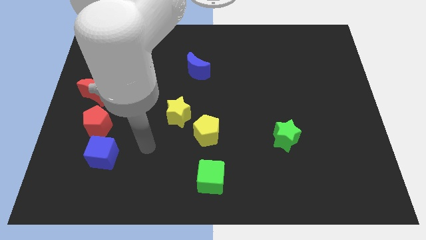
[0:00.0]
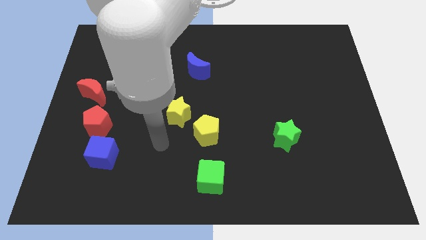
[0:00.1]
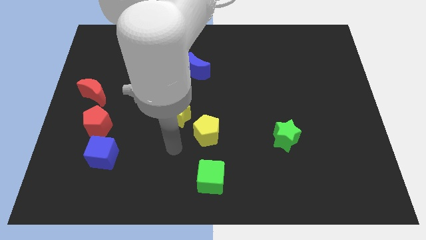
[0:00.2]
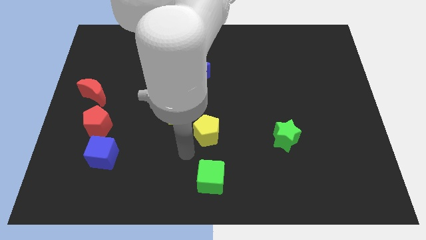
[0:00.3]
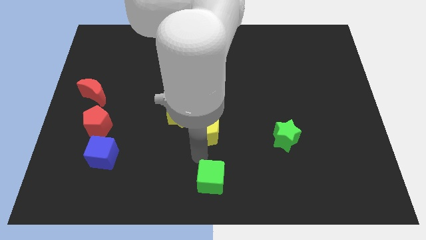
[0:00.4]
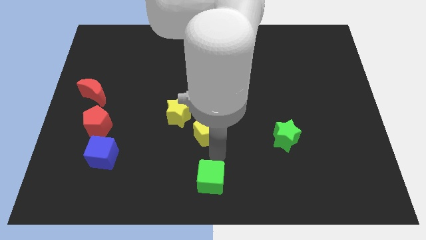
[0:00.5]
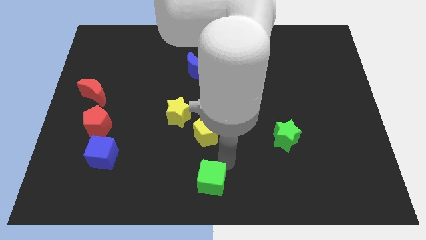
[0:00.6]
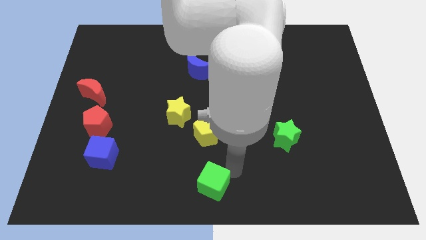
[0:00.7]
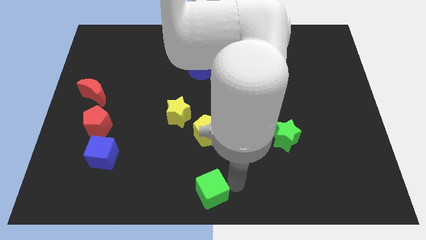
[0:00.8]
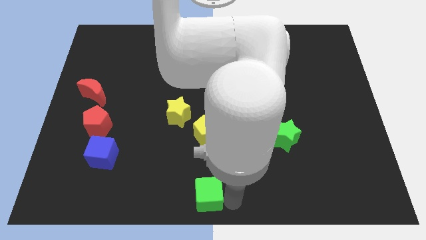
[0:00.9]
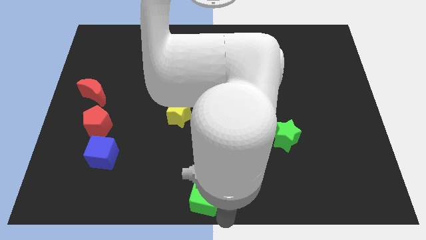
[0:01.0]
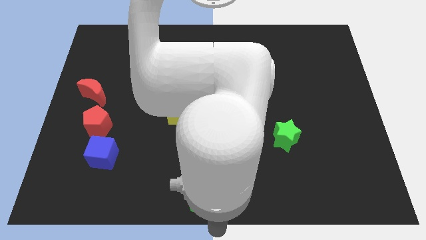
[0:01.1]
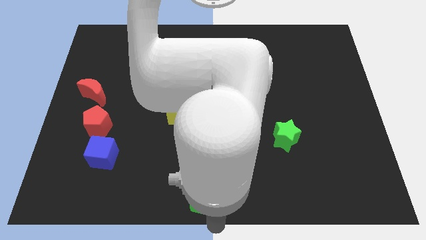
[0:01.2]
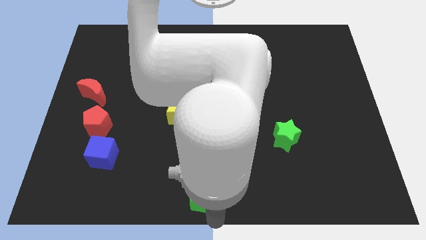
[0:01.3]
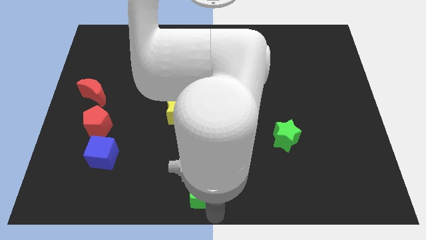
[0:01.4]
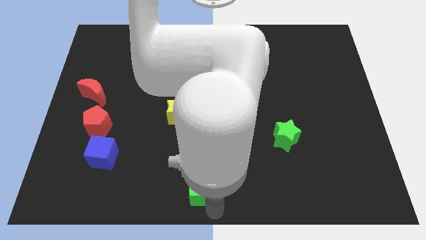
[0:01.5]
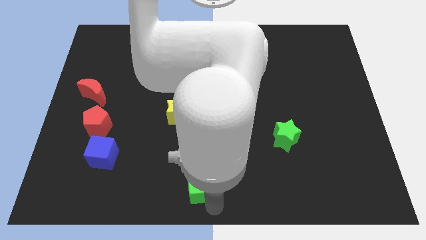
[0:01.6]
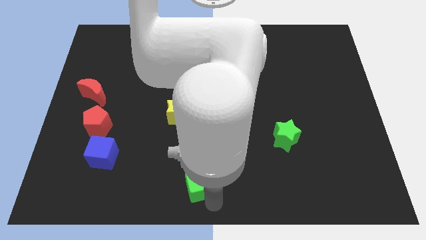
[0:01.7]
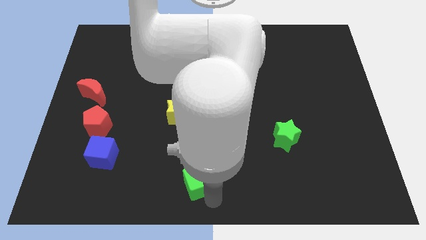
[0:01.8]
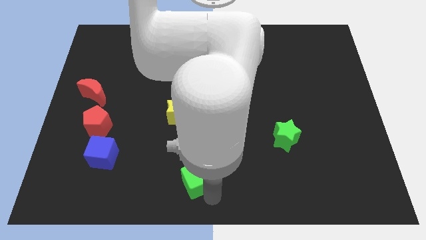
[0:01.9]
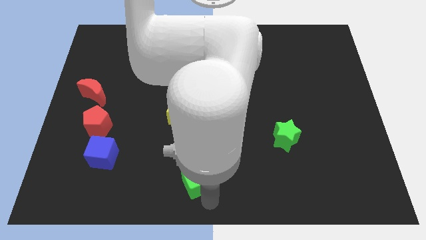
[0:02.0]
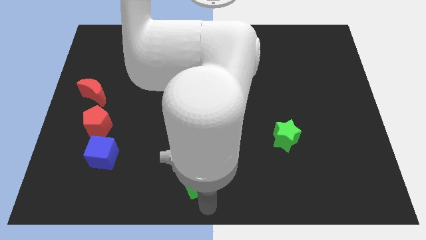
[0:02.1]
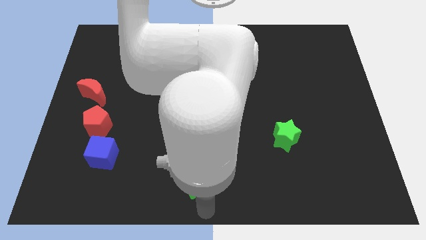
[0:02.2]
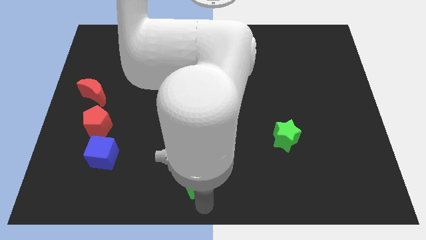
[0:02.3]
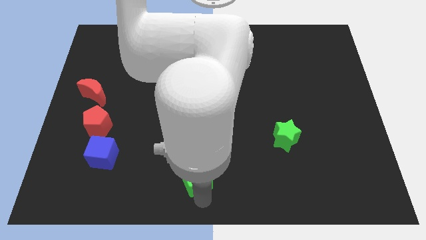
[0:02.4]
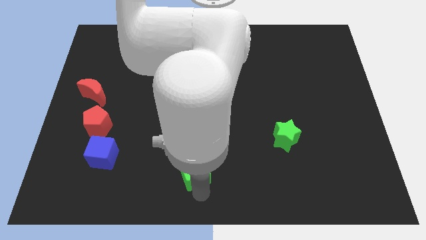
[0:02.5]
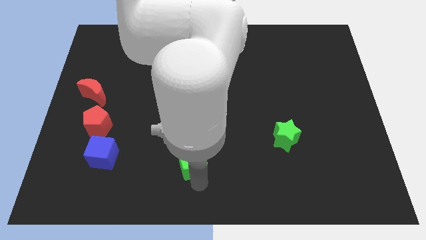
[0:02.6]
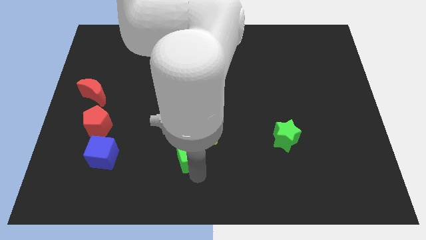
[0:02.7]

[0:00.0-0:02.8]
slightly slide the green cube diagonally up and to the left

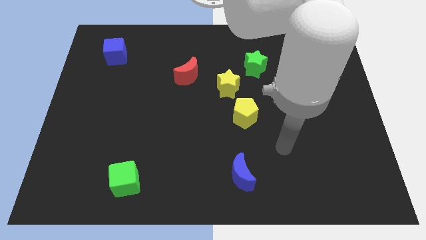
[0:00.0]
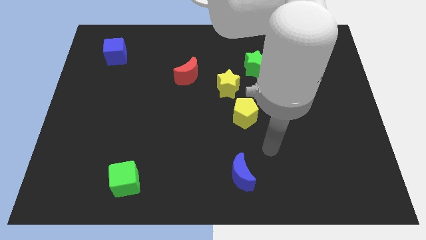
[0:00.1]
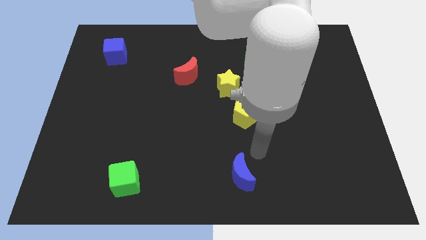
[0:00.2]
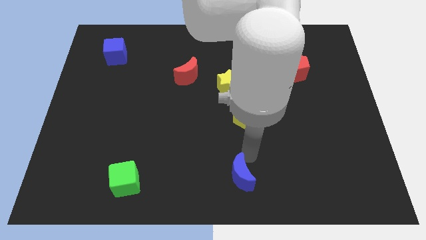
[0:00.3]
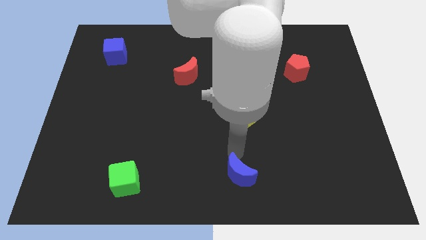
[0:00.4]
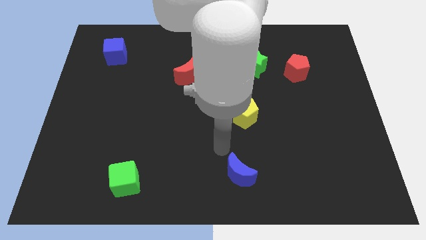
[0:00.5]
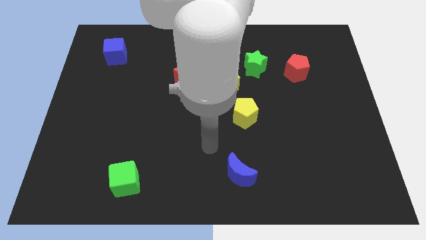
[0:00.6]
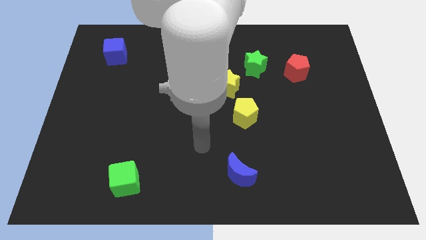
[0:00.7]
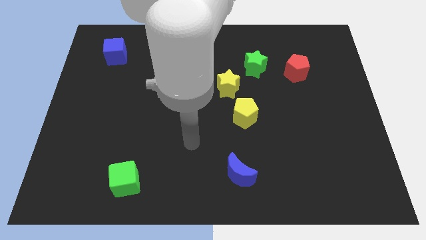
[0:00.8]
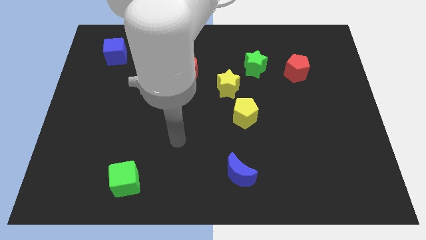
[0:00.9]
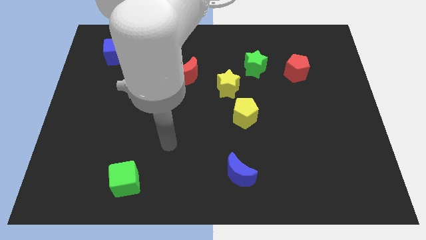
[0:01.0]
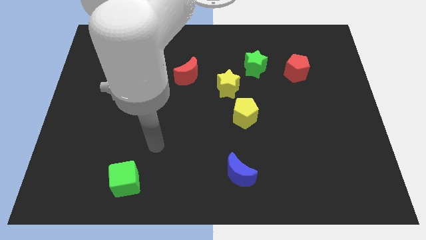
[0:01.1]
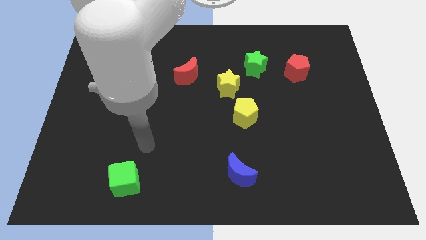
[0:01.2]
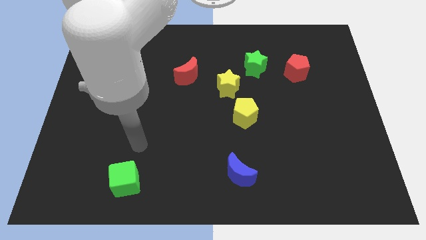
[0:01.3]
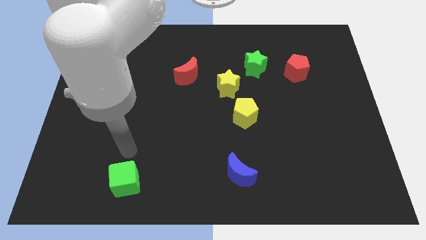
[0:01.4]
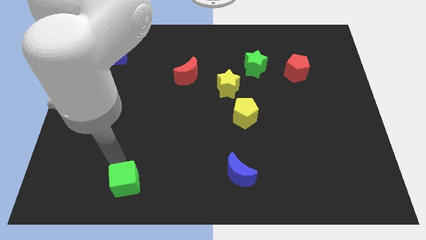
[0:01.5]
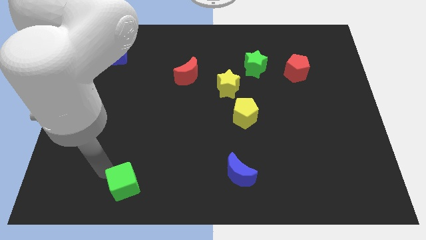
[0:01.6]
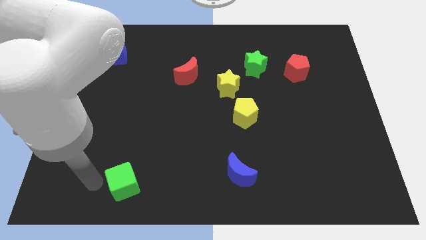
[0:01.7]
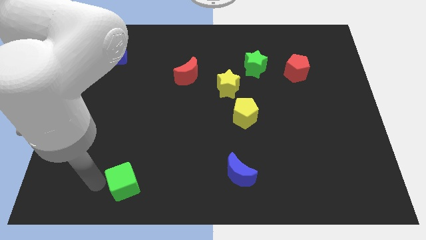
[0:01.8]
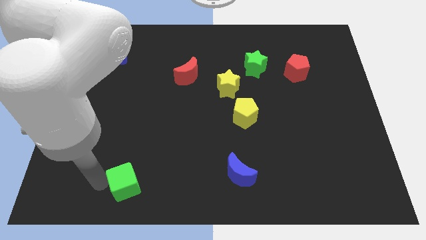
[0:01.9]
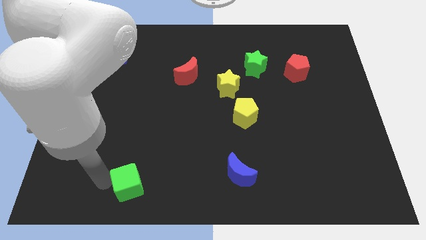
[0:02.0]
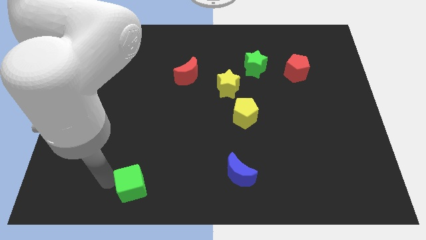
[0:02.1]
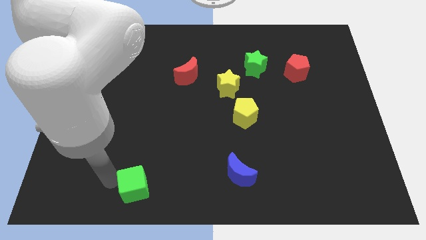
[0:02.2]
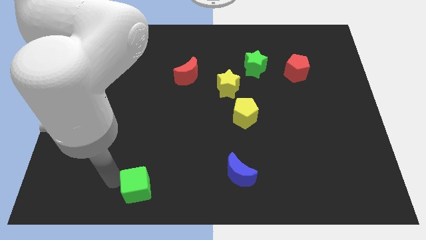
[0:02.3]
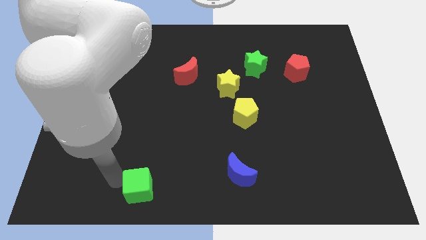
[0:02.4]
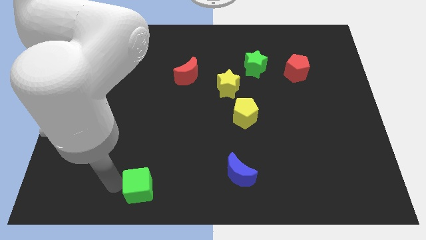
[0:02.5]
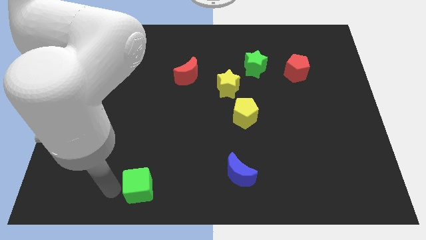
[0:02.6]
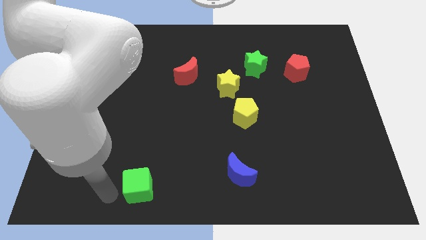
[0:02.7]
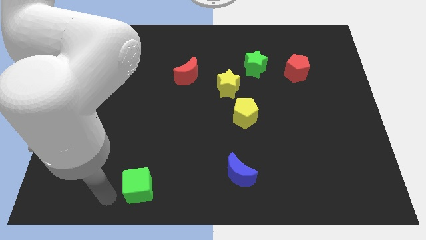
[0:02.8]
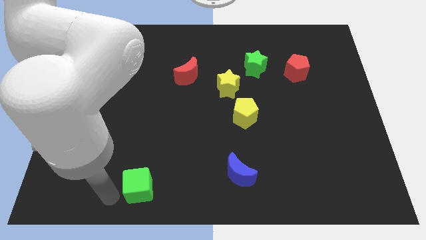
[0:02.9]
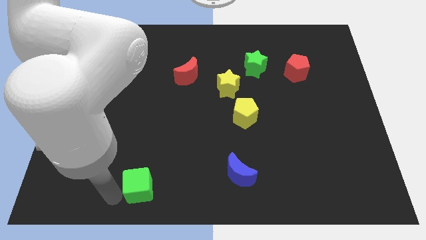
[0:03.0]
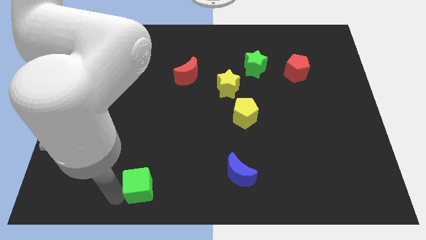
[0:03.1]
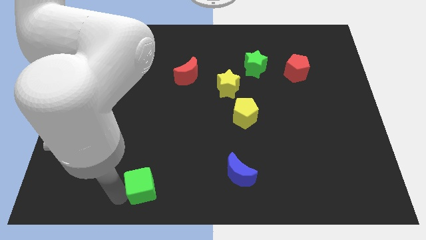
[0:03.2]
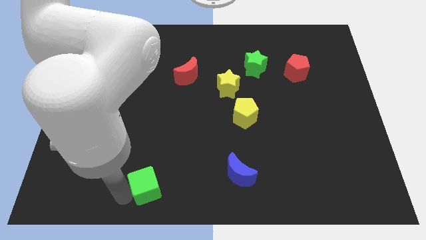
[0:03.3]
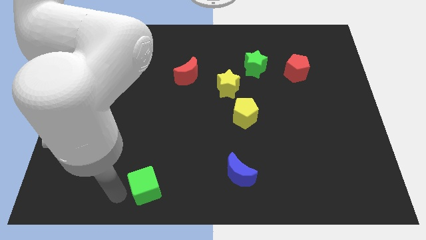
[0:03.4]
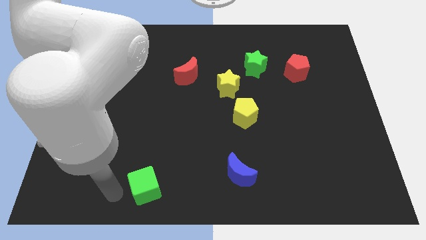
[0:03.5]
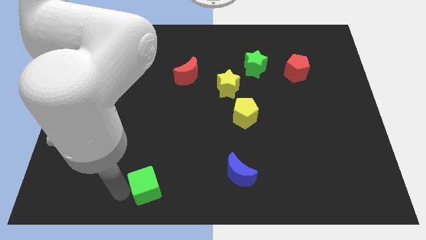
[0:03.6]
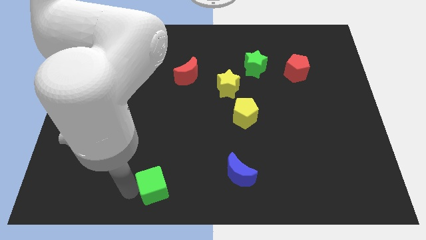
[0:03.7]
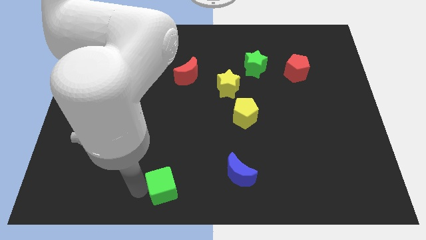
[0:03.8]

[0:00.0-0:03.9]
move the green cube to the right a bit

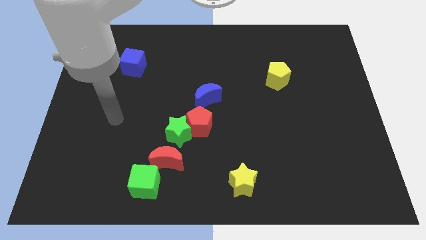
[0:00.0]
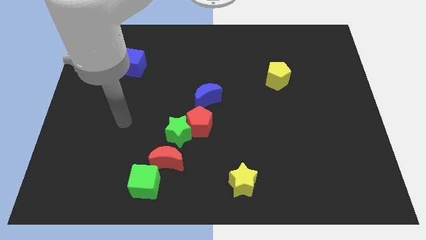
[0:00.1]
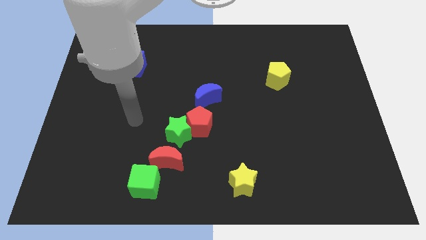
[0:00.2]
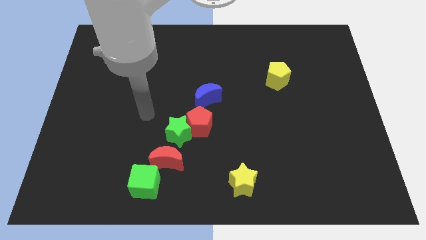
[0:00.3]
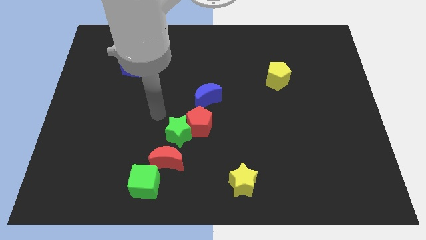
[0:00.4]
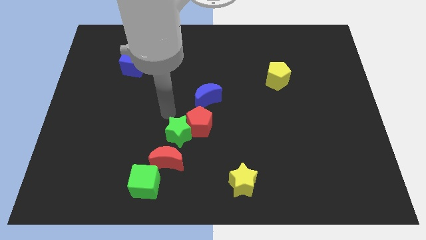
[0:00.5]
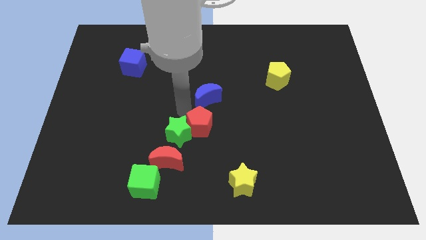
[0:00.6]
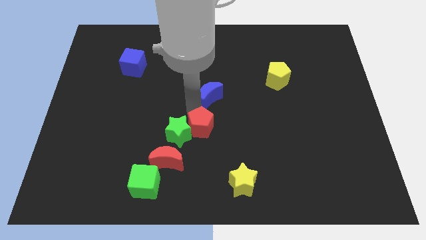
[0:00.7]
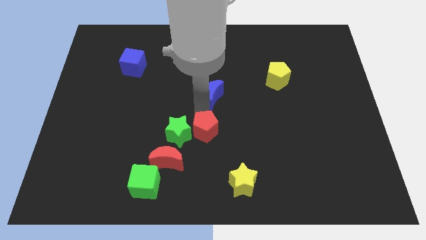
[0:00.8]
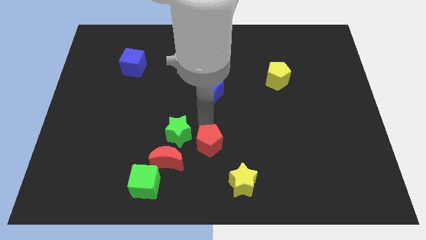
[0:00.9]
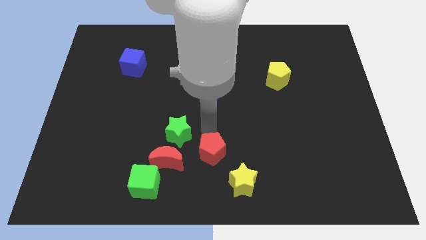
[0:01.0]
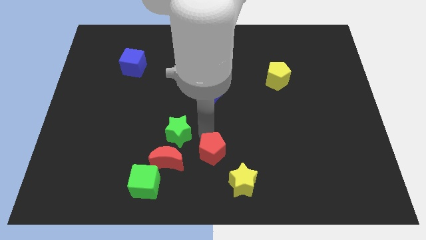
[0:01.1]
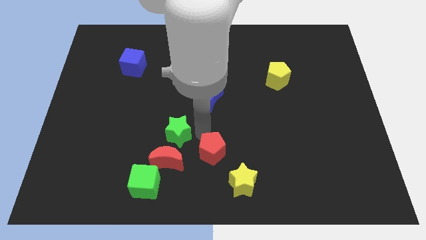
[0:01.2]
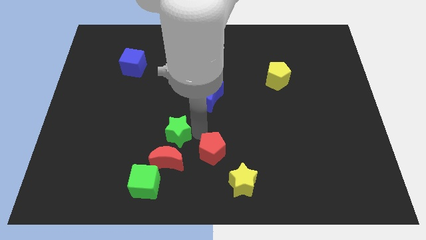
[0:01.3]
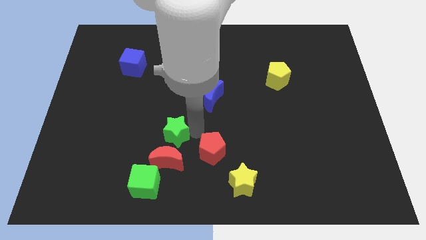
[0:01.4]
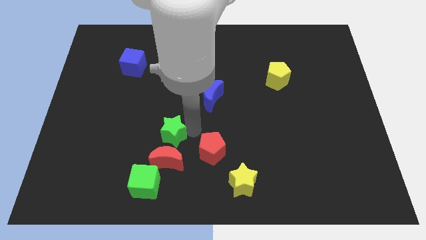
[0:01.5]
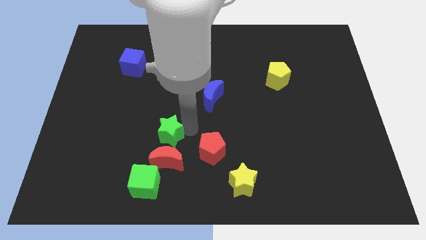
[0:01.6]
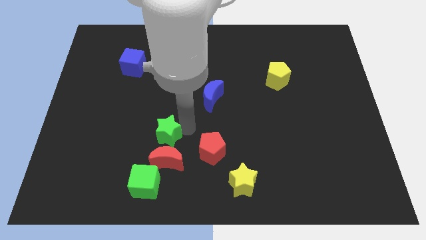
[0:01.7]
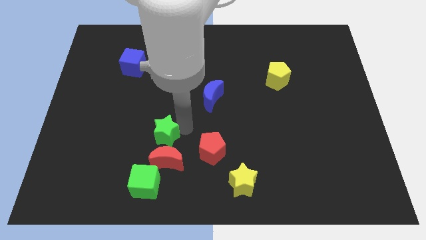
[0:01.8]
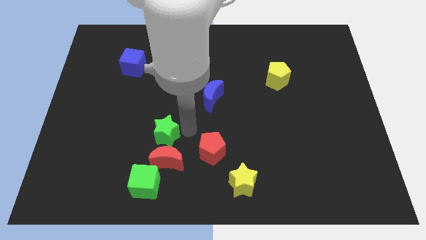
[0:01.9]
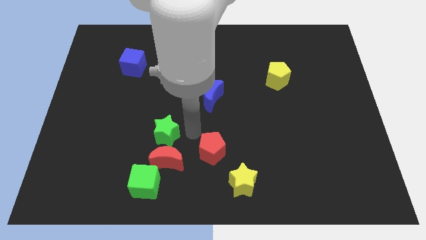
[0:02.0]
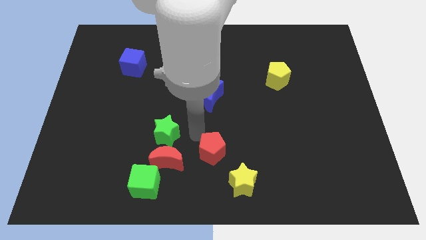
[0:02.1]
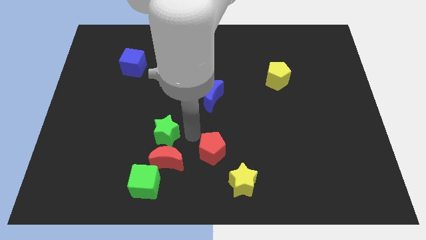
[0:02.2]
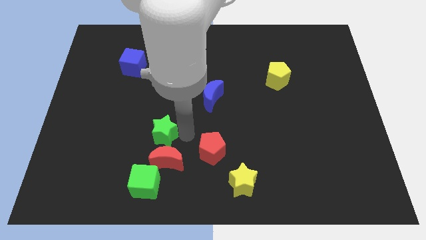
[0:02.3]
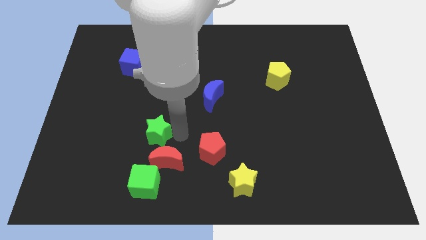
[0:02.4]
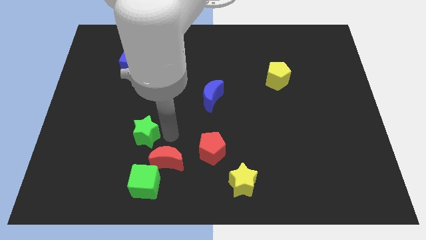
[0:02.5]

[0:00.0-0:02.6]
slightly slide the green star left
